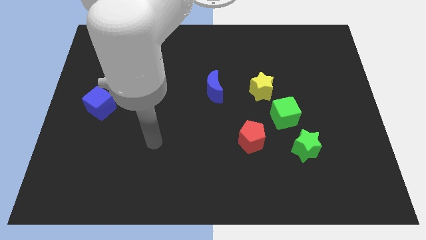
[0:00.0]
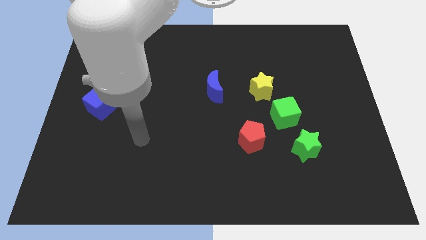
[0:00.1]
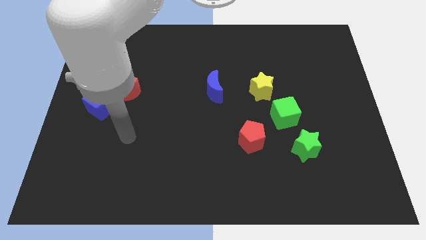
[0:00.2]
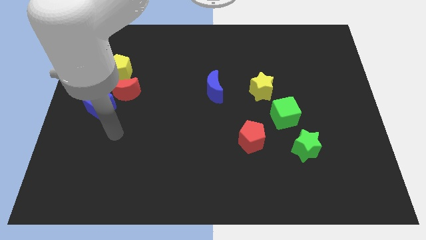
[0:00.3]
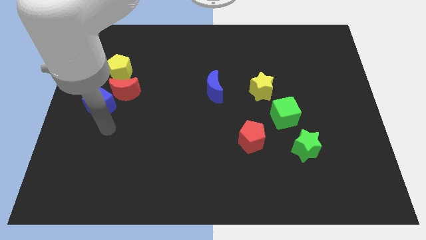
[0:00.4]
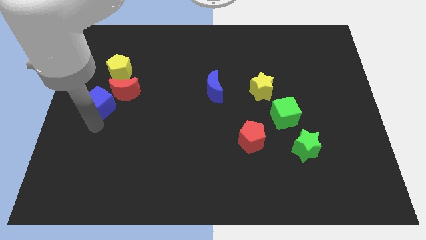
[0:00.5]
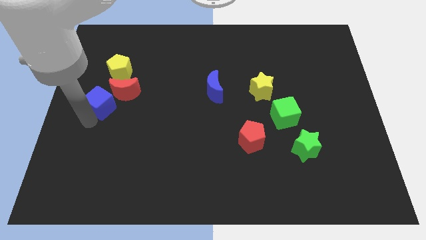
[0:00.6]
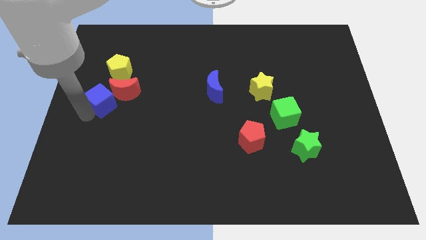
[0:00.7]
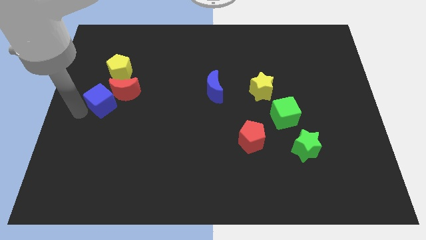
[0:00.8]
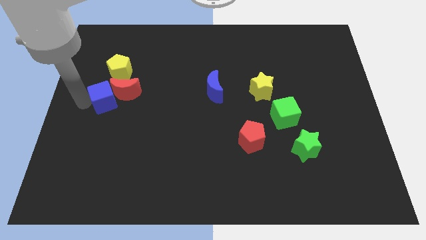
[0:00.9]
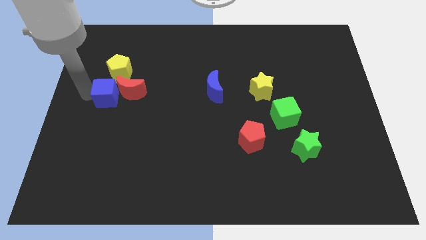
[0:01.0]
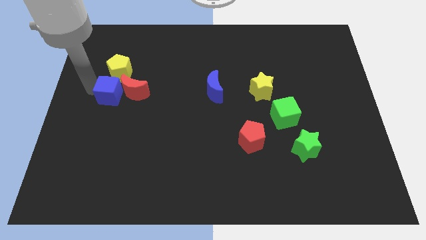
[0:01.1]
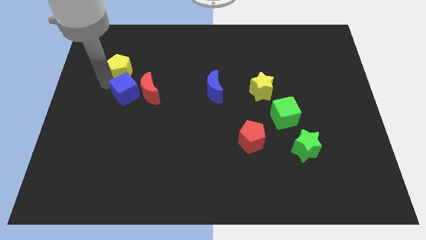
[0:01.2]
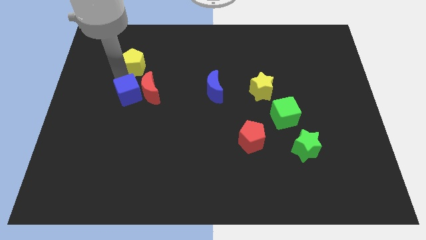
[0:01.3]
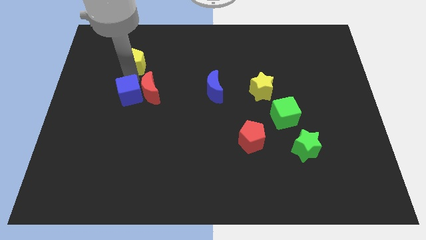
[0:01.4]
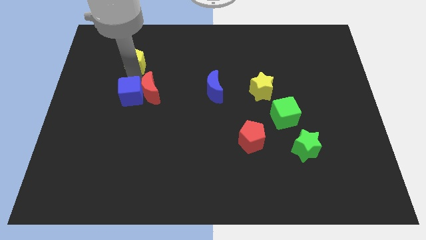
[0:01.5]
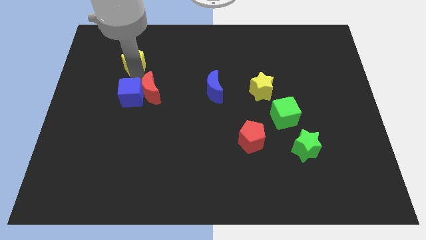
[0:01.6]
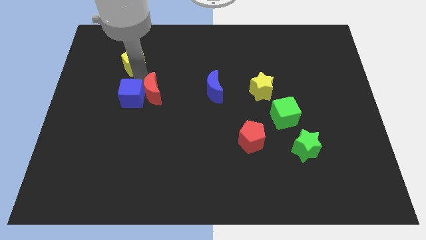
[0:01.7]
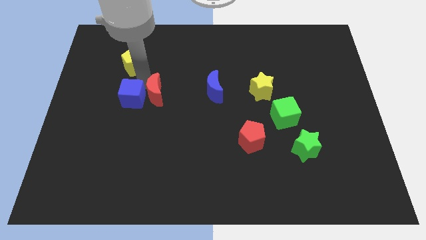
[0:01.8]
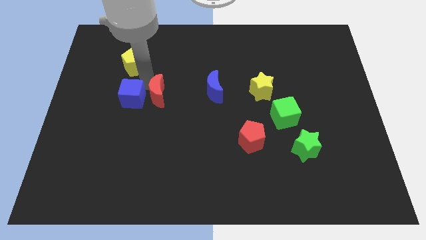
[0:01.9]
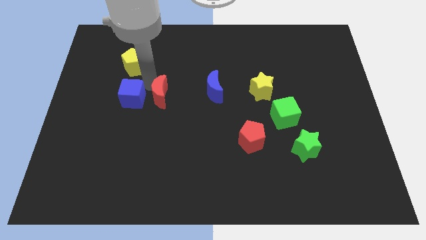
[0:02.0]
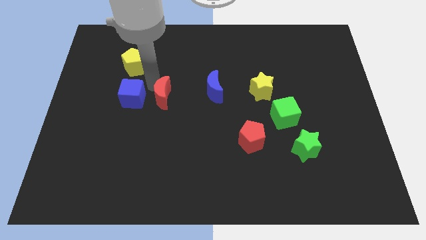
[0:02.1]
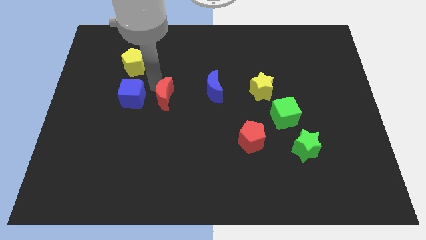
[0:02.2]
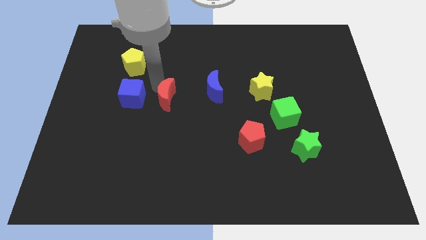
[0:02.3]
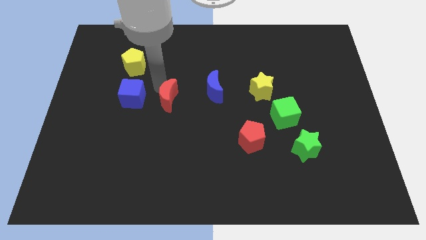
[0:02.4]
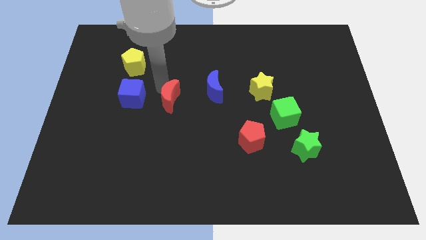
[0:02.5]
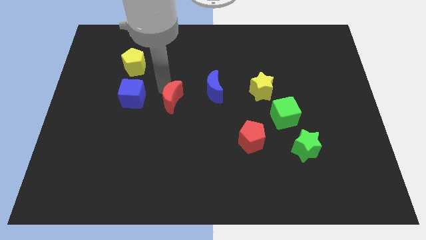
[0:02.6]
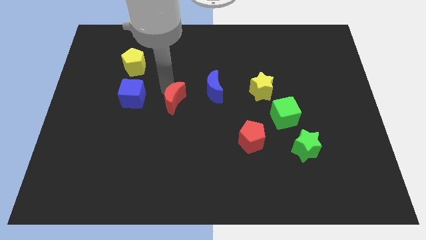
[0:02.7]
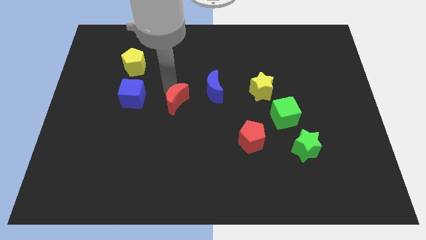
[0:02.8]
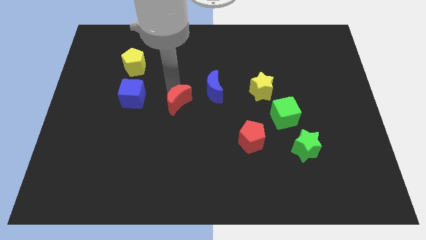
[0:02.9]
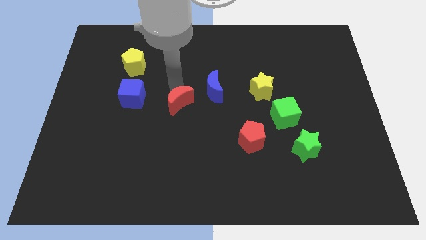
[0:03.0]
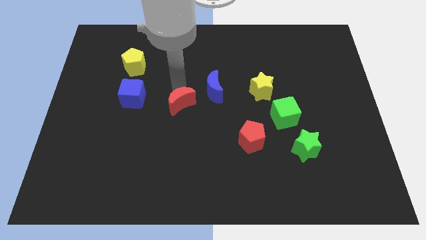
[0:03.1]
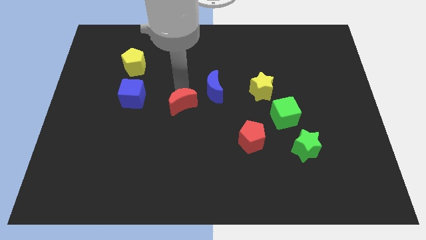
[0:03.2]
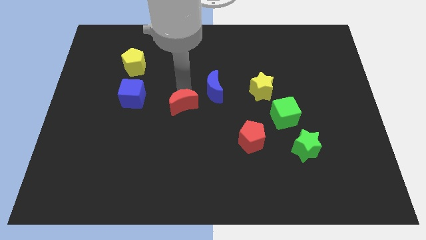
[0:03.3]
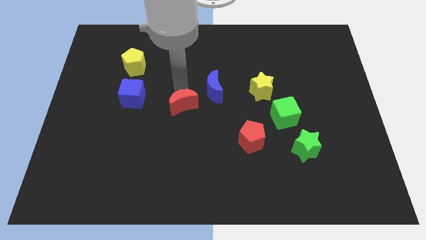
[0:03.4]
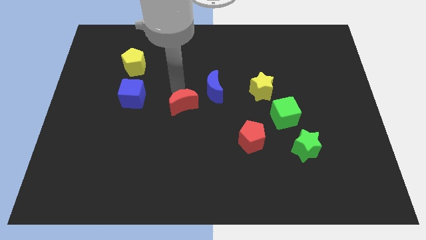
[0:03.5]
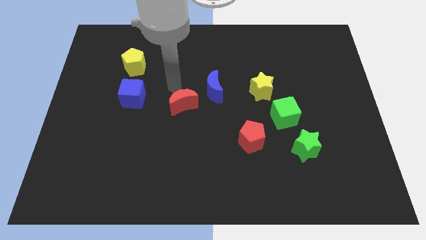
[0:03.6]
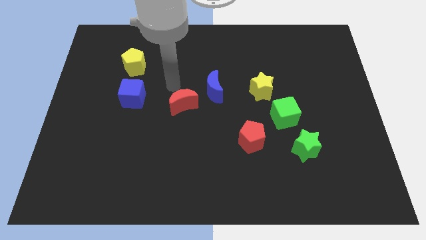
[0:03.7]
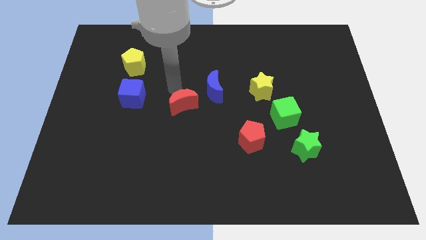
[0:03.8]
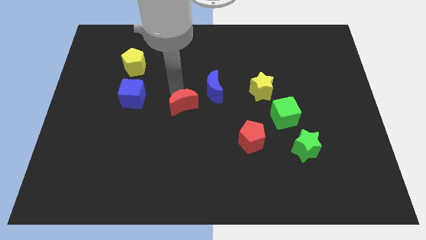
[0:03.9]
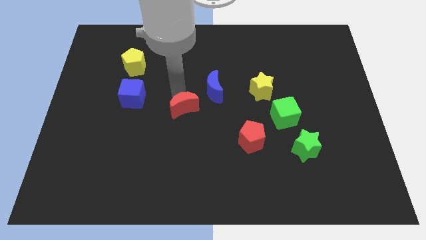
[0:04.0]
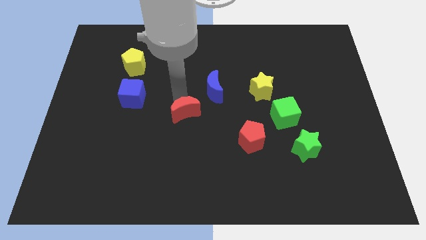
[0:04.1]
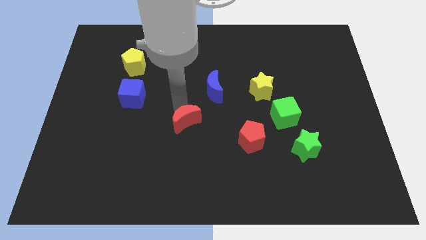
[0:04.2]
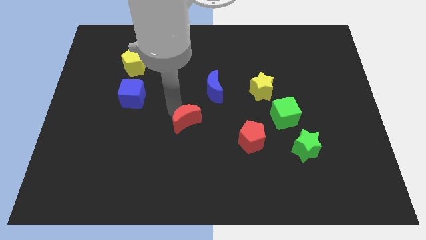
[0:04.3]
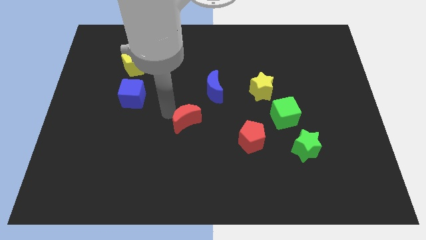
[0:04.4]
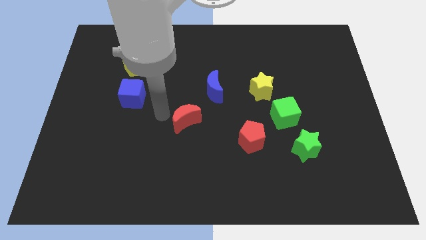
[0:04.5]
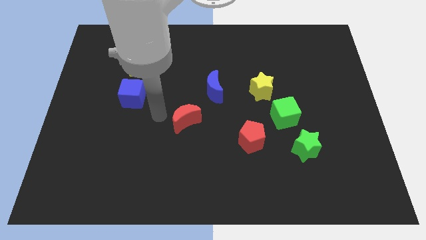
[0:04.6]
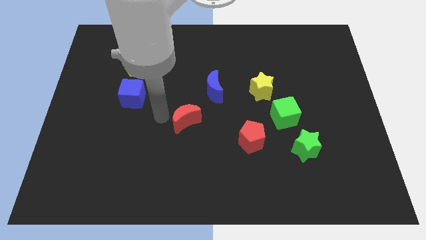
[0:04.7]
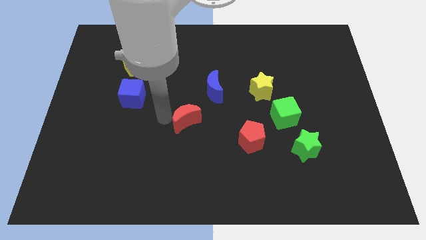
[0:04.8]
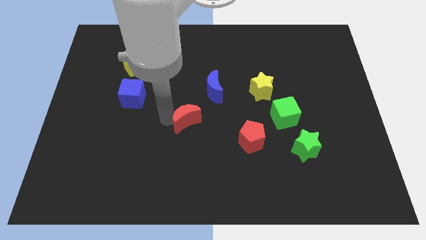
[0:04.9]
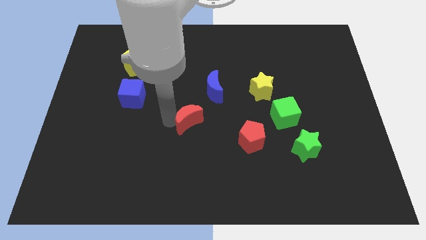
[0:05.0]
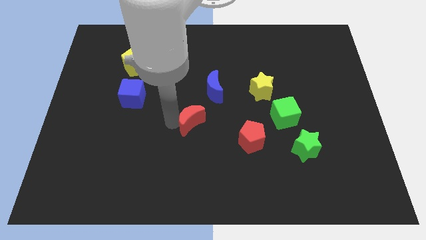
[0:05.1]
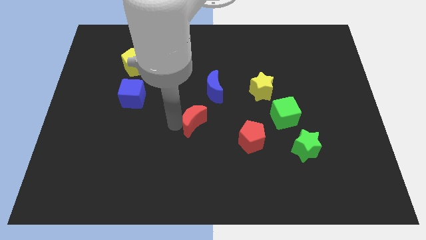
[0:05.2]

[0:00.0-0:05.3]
put the red moon to the bottom of the blue moon

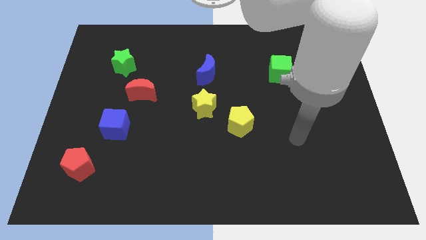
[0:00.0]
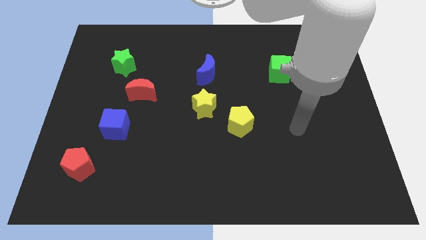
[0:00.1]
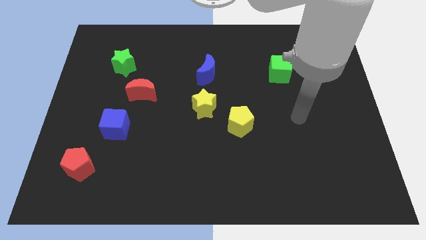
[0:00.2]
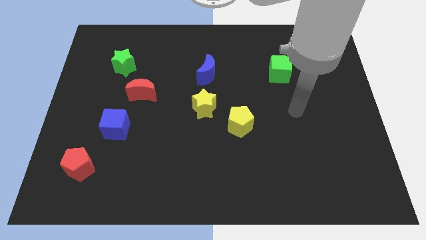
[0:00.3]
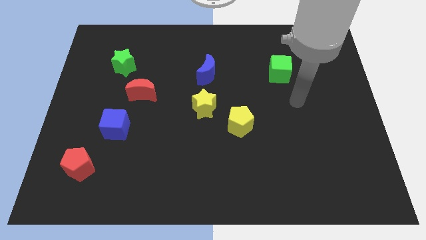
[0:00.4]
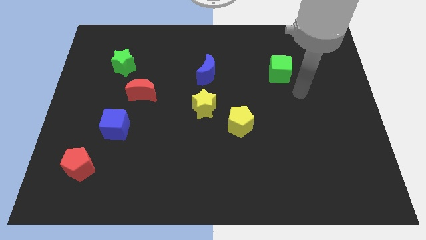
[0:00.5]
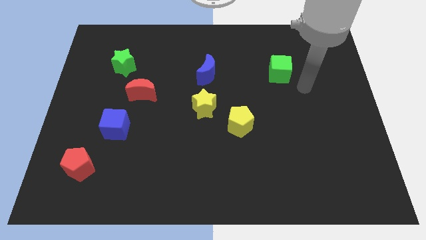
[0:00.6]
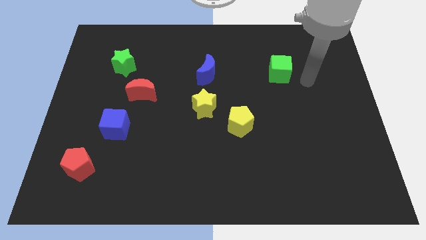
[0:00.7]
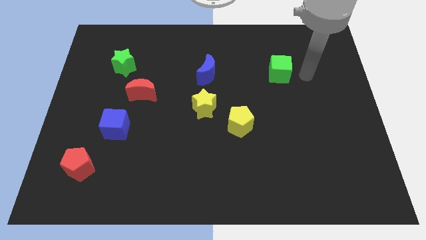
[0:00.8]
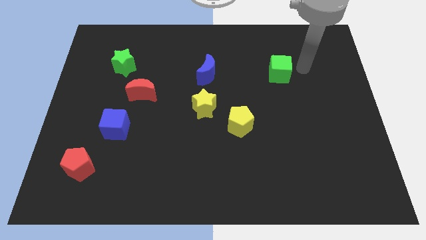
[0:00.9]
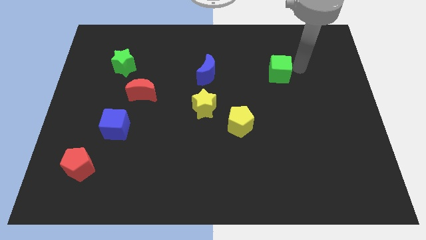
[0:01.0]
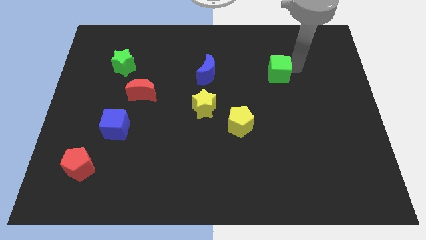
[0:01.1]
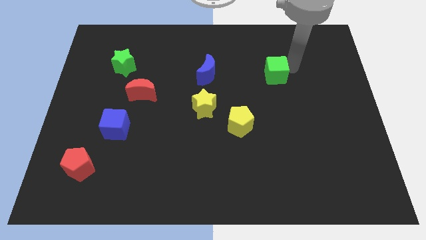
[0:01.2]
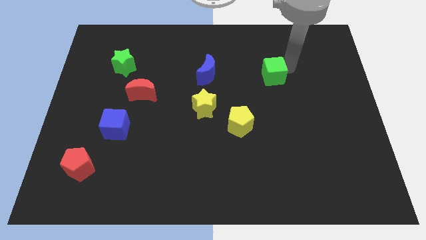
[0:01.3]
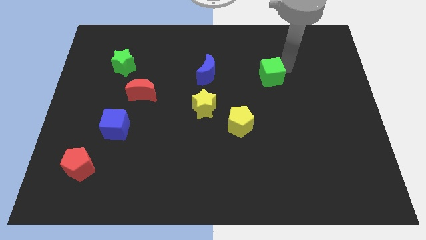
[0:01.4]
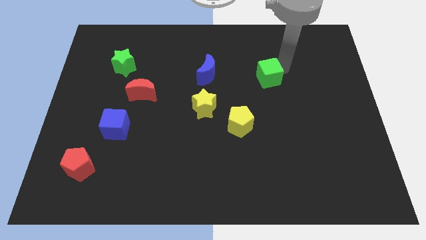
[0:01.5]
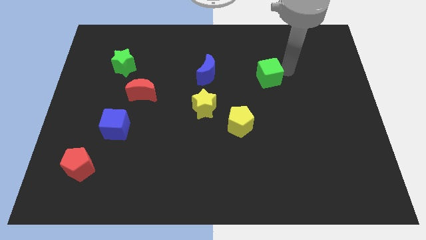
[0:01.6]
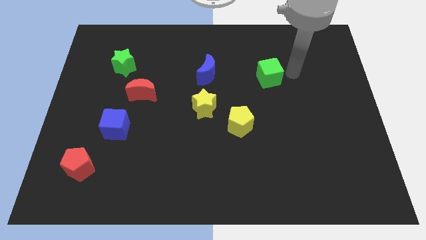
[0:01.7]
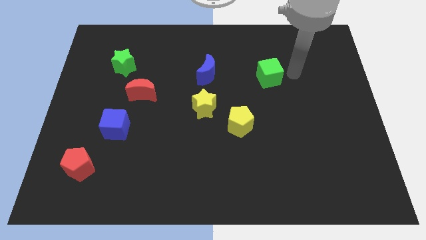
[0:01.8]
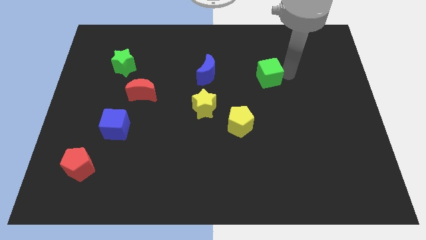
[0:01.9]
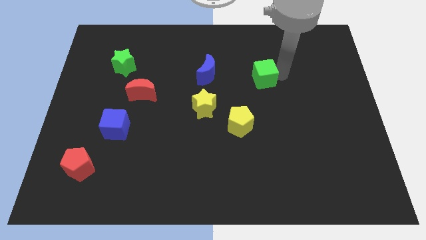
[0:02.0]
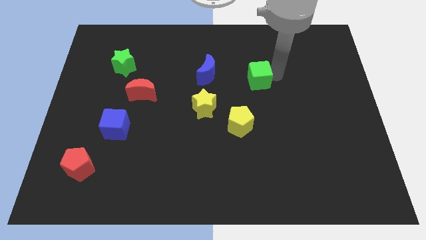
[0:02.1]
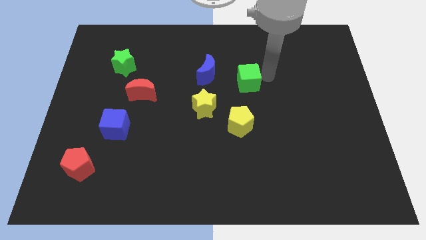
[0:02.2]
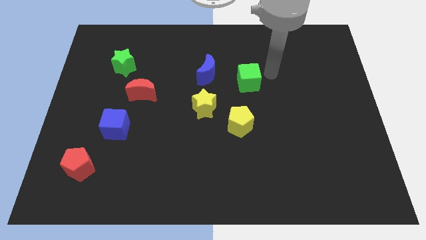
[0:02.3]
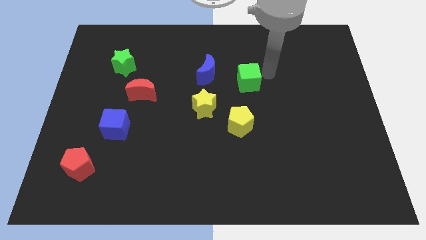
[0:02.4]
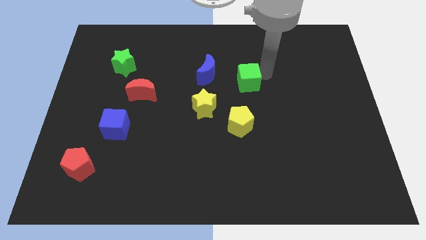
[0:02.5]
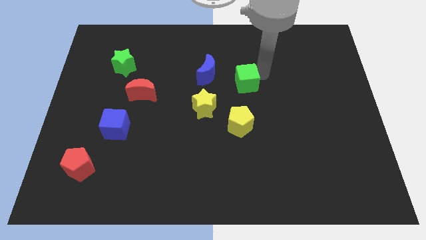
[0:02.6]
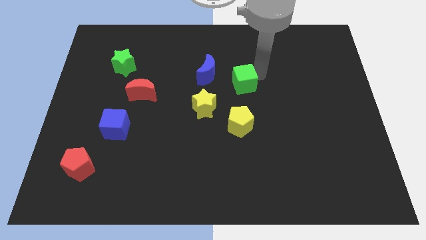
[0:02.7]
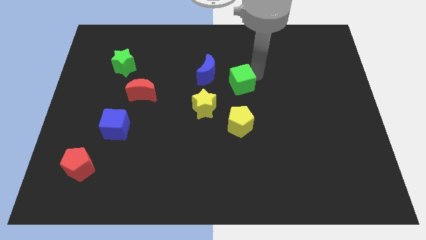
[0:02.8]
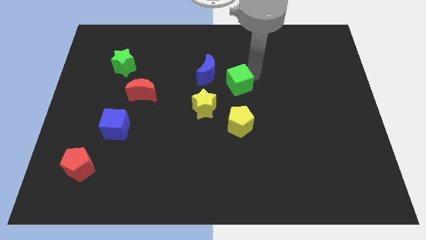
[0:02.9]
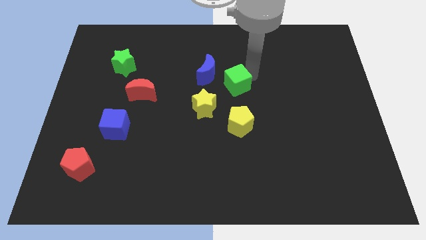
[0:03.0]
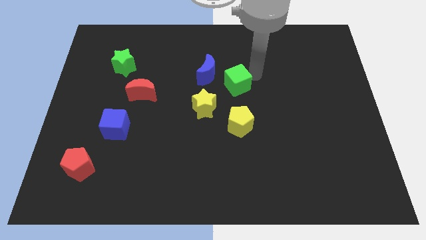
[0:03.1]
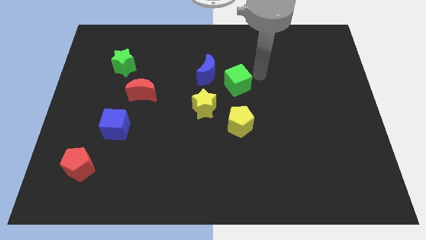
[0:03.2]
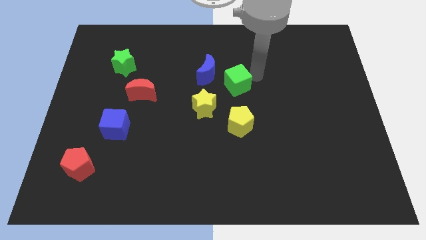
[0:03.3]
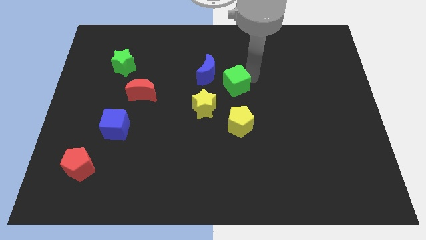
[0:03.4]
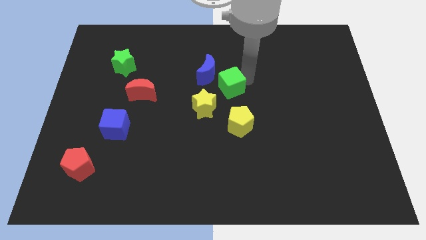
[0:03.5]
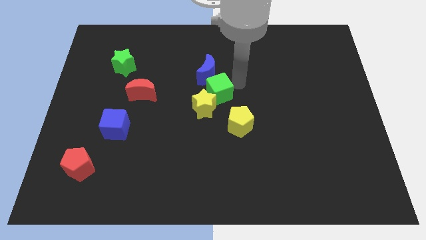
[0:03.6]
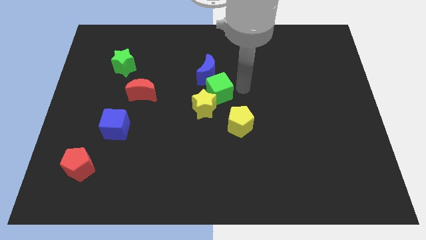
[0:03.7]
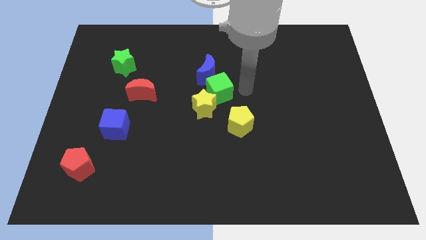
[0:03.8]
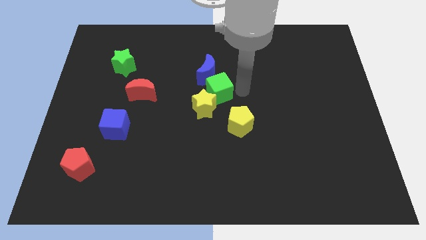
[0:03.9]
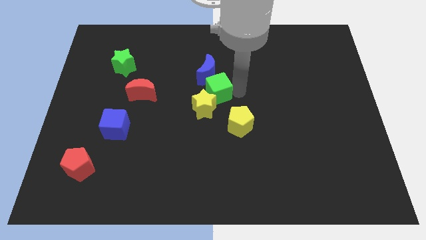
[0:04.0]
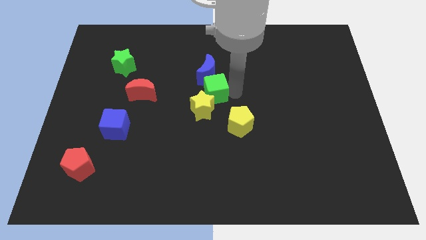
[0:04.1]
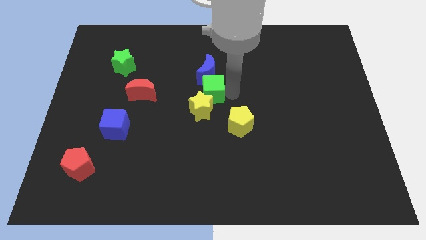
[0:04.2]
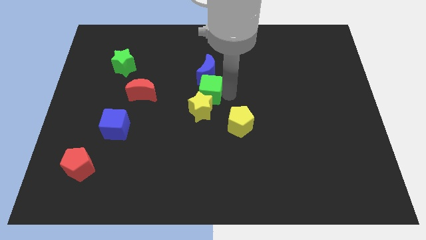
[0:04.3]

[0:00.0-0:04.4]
push the green cube to the right side of the red moon
